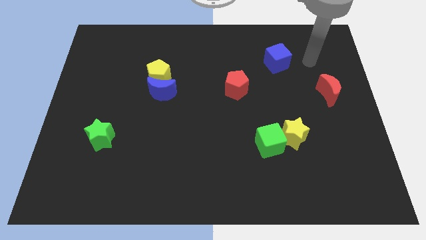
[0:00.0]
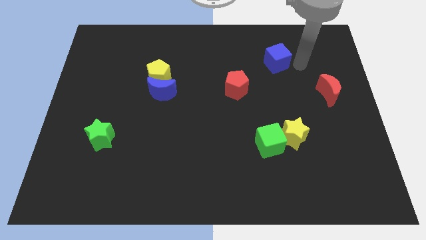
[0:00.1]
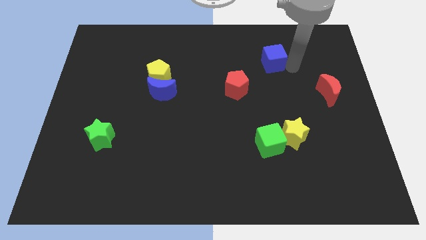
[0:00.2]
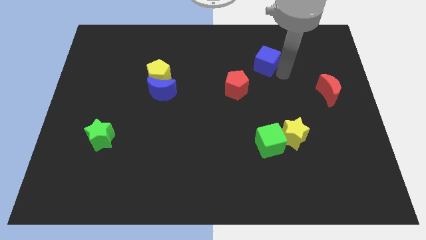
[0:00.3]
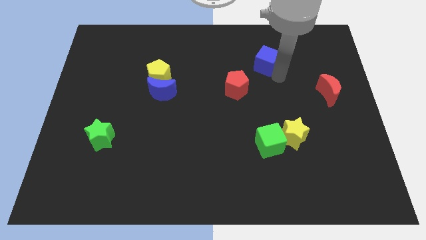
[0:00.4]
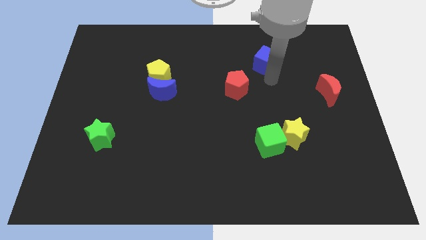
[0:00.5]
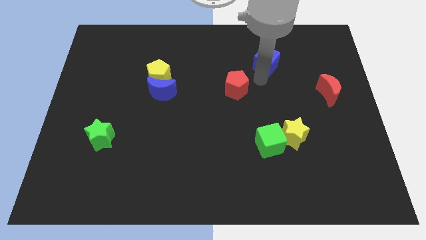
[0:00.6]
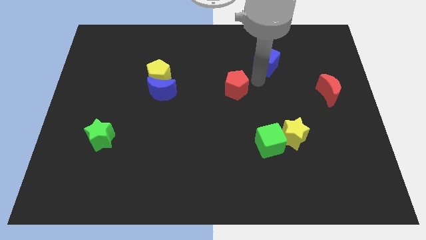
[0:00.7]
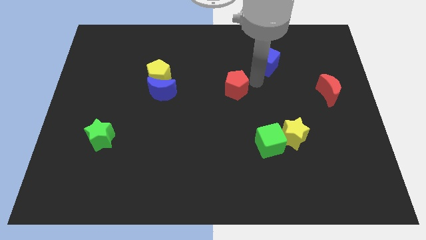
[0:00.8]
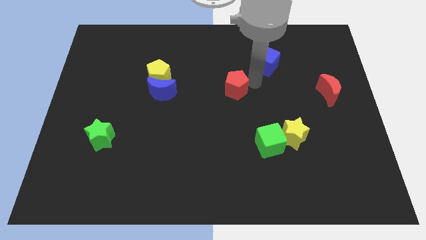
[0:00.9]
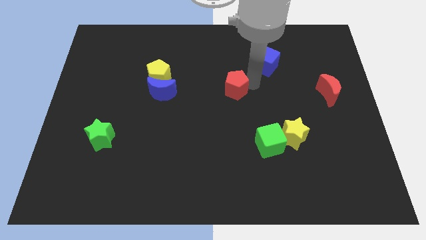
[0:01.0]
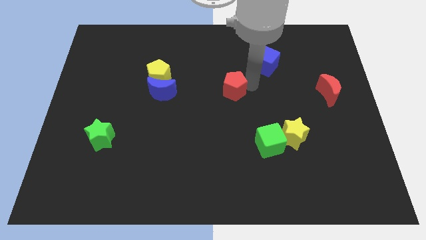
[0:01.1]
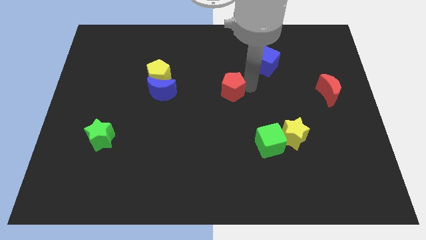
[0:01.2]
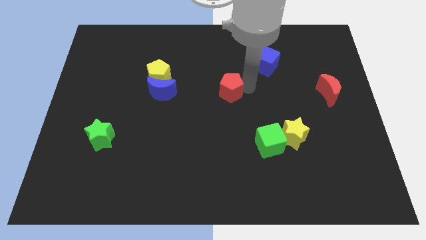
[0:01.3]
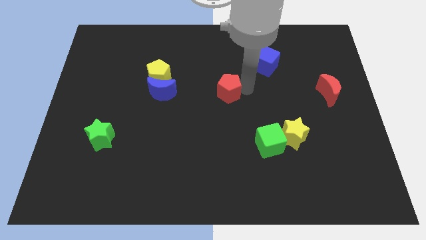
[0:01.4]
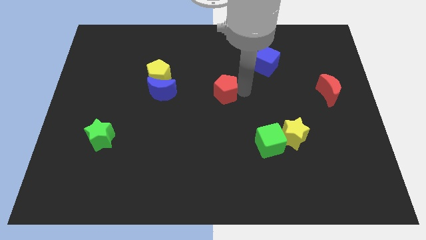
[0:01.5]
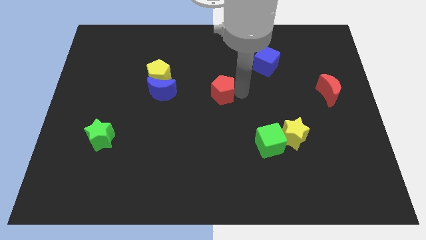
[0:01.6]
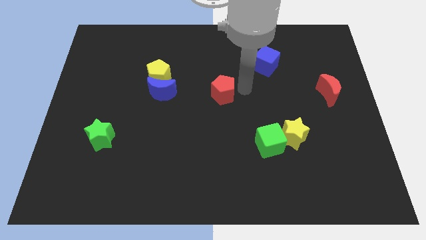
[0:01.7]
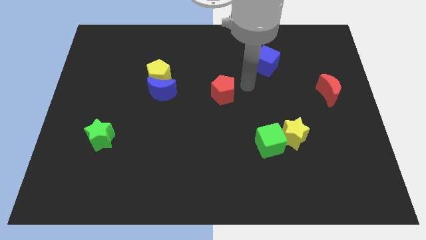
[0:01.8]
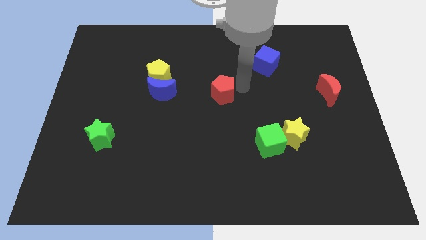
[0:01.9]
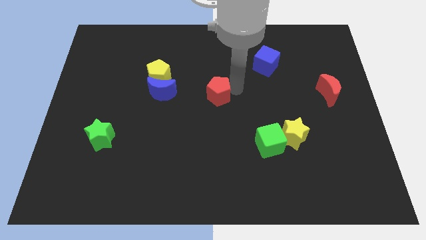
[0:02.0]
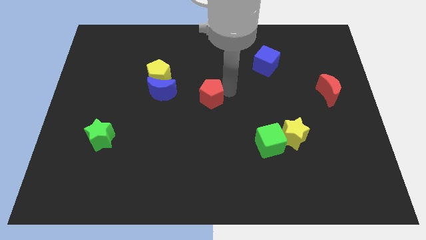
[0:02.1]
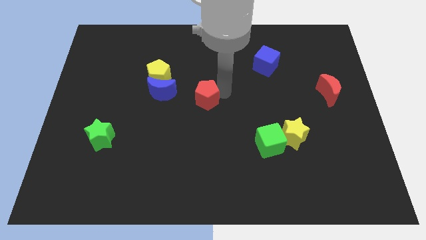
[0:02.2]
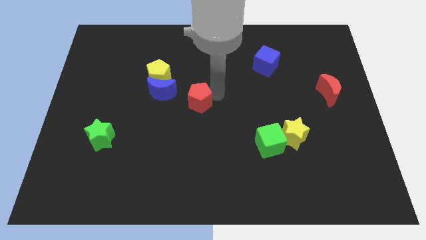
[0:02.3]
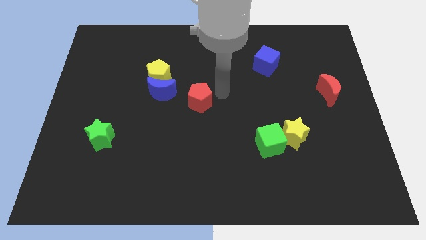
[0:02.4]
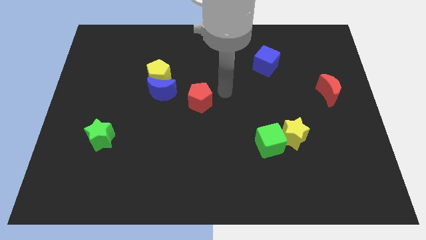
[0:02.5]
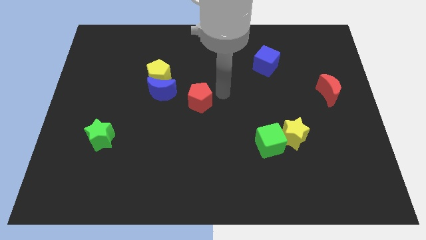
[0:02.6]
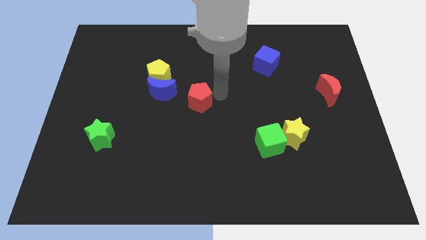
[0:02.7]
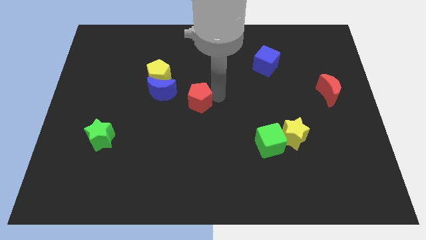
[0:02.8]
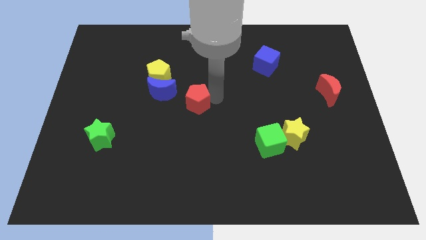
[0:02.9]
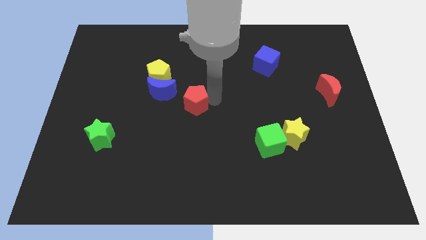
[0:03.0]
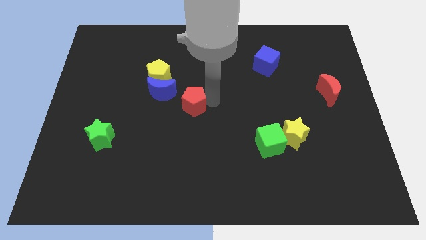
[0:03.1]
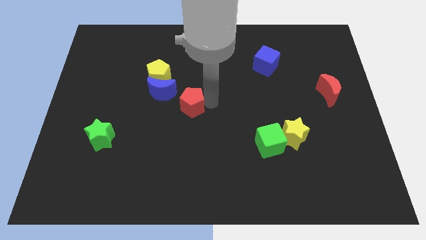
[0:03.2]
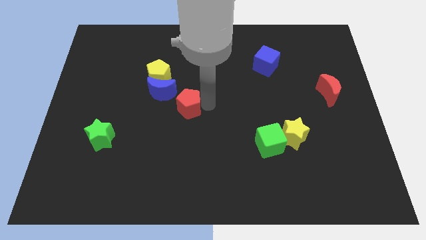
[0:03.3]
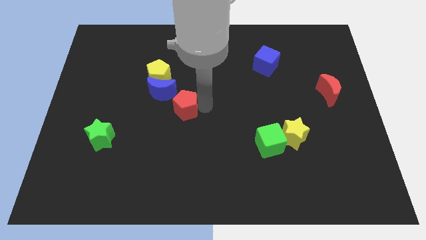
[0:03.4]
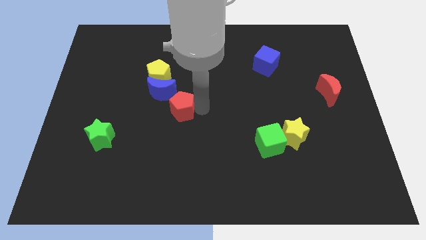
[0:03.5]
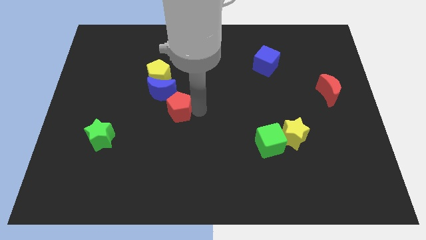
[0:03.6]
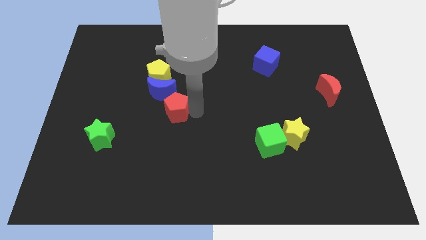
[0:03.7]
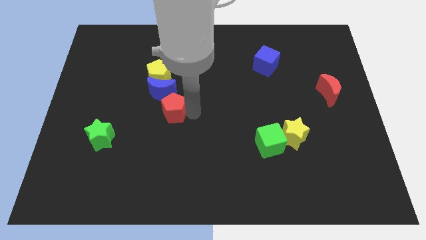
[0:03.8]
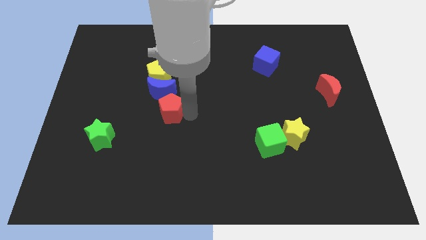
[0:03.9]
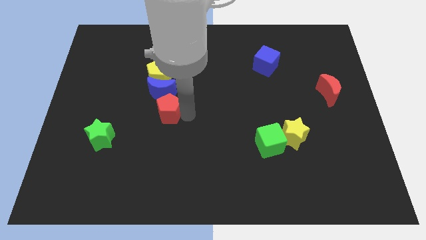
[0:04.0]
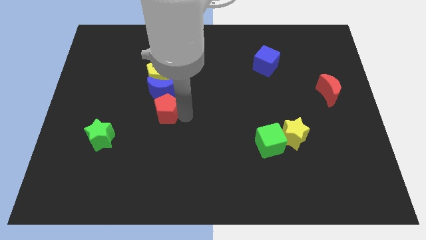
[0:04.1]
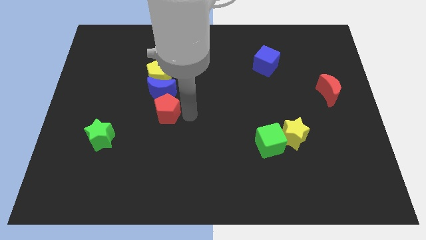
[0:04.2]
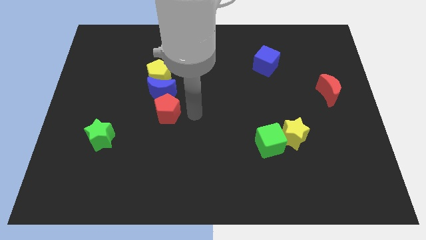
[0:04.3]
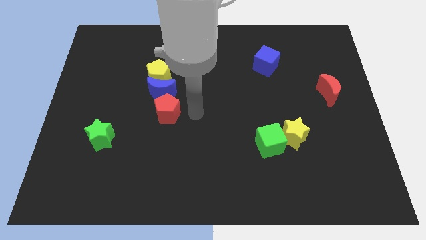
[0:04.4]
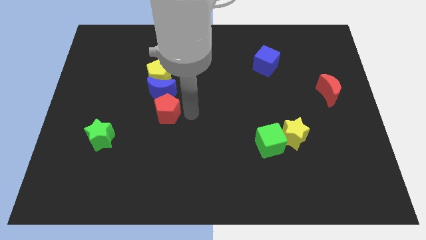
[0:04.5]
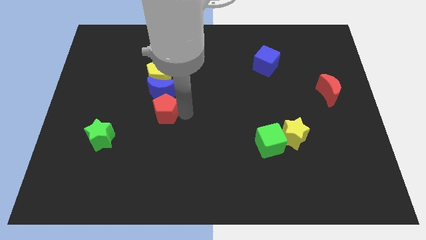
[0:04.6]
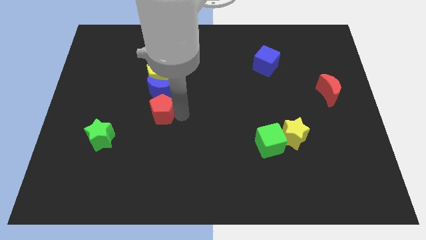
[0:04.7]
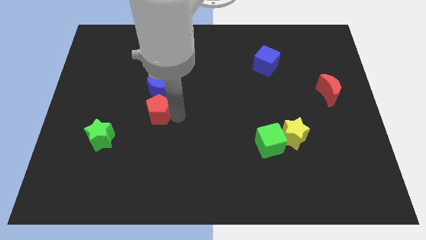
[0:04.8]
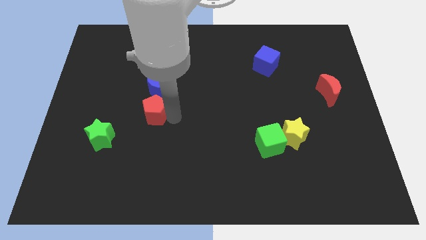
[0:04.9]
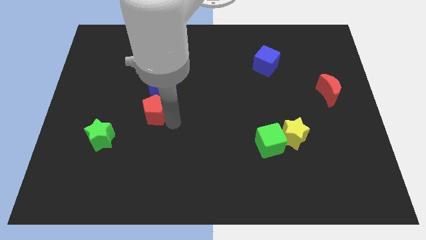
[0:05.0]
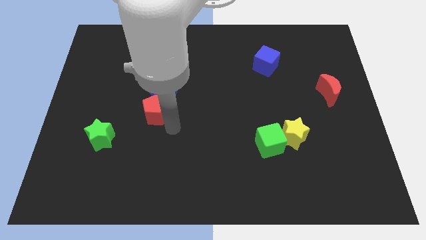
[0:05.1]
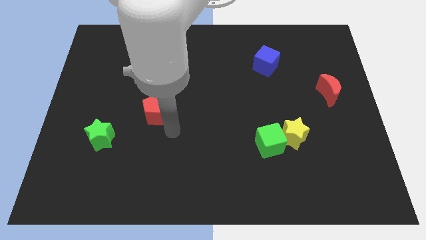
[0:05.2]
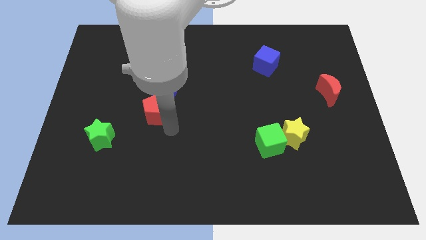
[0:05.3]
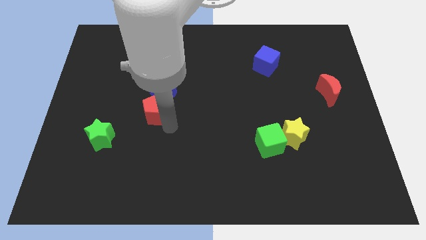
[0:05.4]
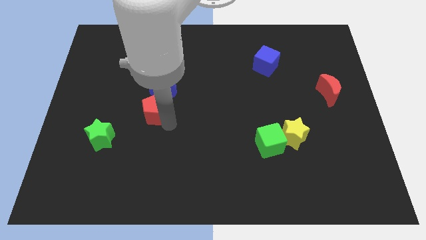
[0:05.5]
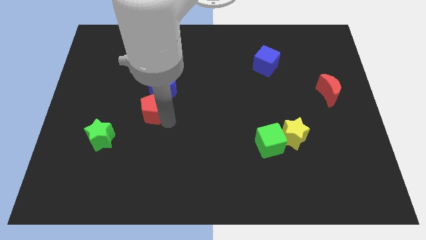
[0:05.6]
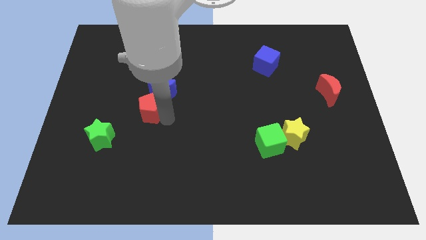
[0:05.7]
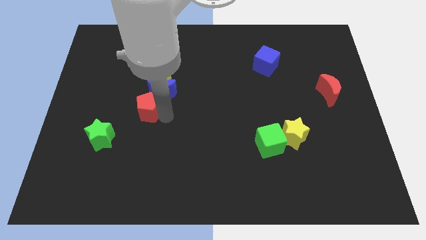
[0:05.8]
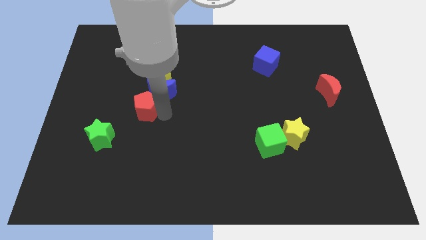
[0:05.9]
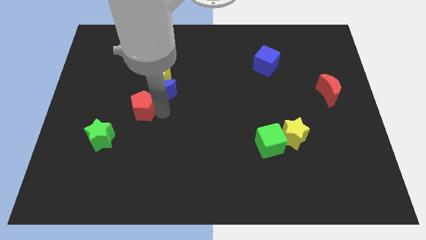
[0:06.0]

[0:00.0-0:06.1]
move the red pentagon to the left

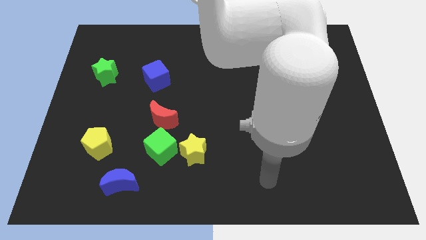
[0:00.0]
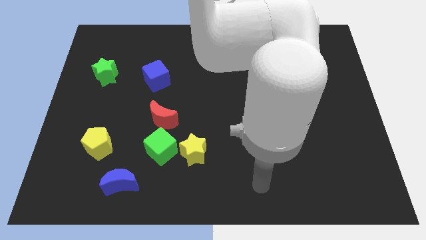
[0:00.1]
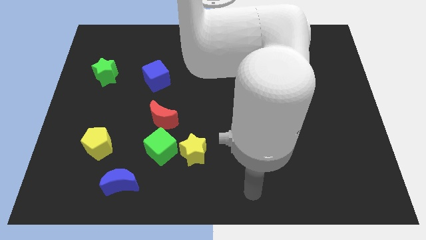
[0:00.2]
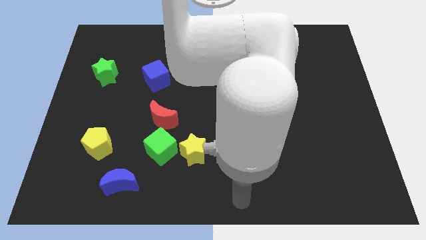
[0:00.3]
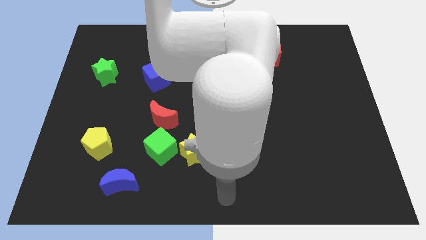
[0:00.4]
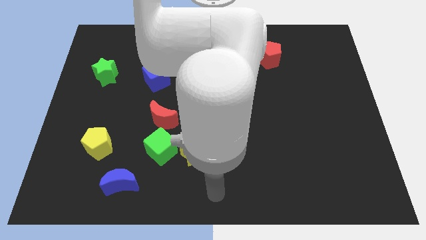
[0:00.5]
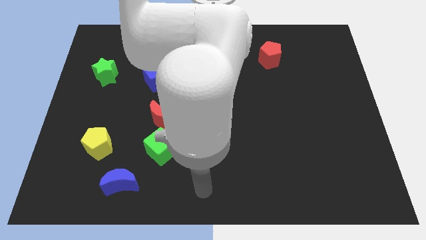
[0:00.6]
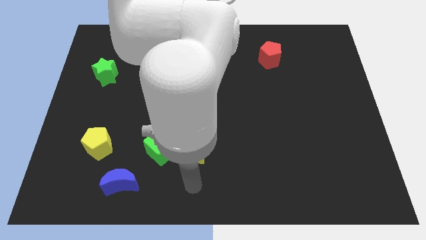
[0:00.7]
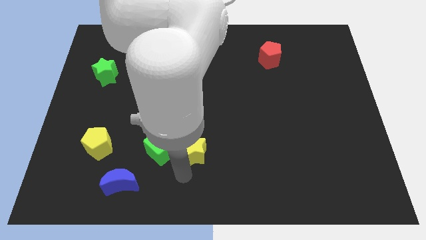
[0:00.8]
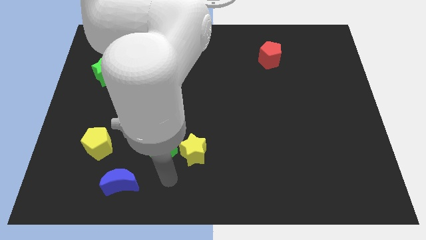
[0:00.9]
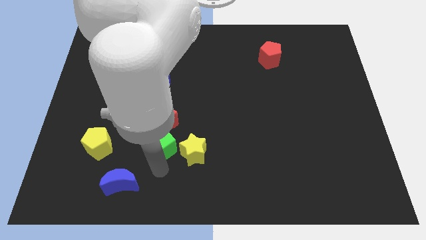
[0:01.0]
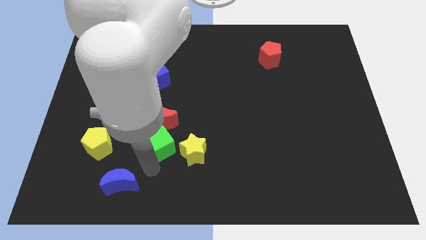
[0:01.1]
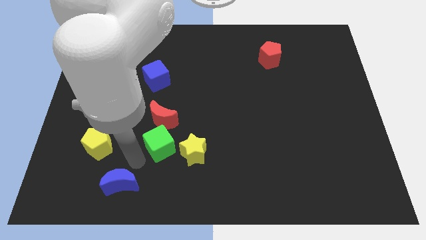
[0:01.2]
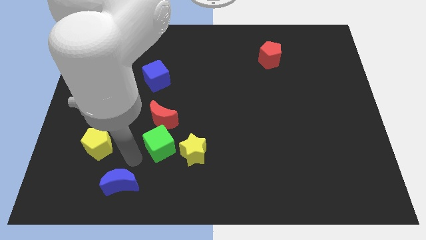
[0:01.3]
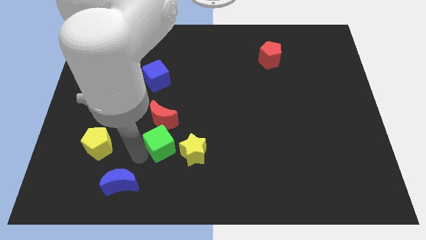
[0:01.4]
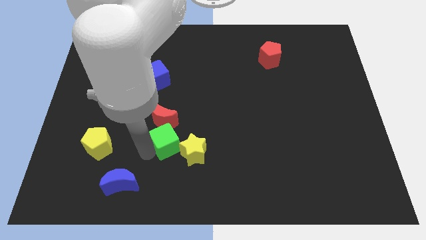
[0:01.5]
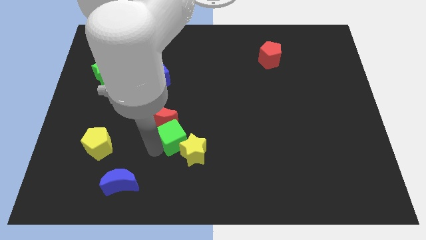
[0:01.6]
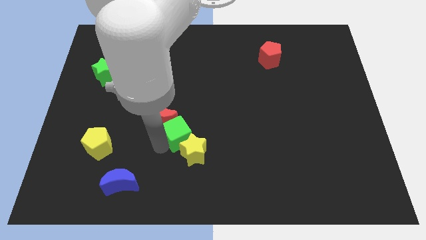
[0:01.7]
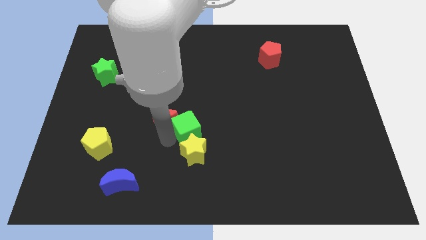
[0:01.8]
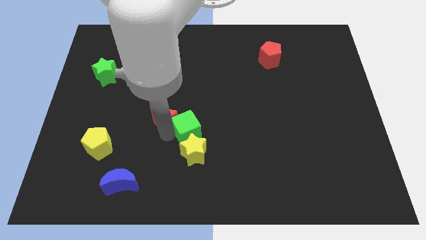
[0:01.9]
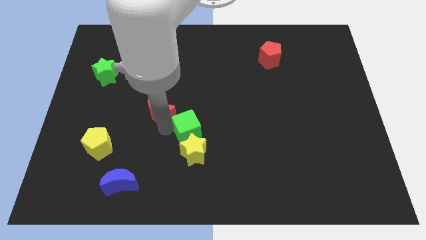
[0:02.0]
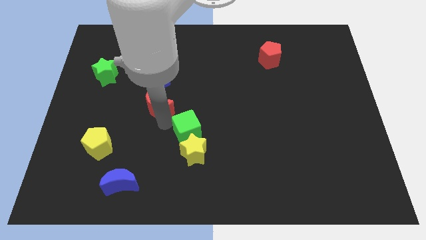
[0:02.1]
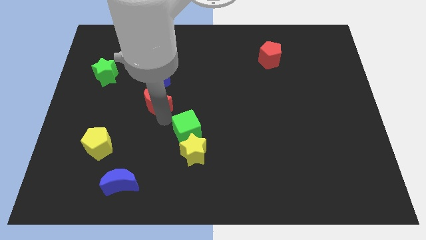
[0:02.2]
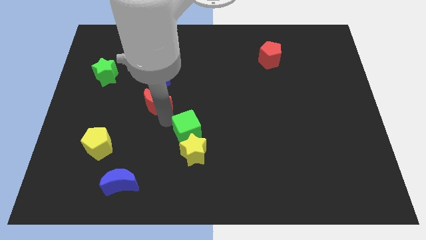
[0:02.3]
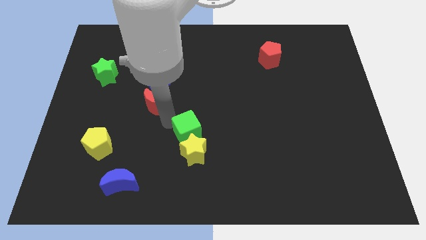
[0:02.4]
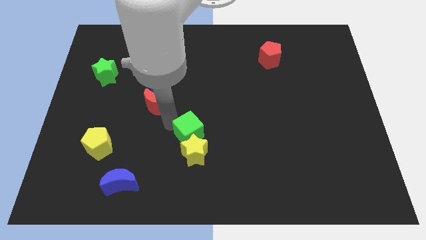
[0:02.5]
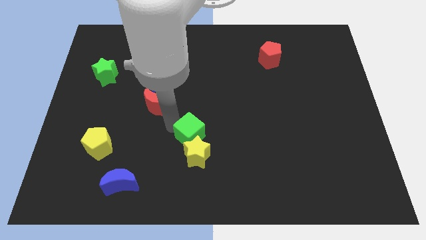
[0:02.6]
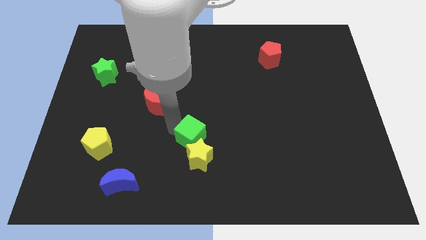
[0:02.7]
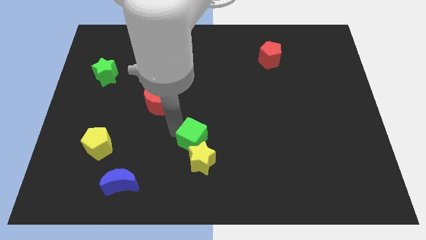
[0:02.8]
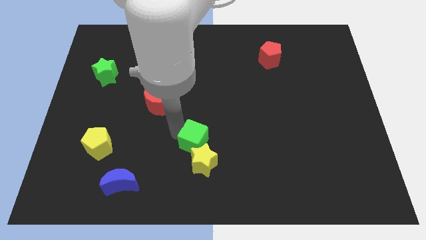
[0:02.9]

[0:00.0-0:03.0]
move the green cube to the right slightly
